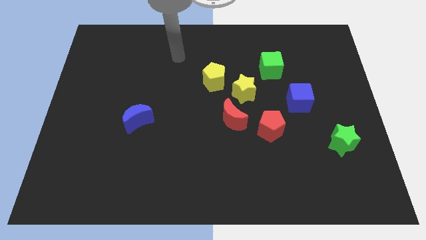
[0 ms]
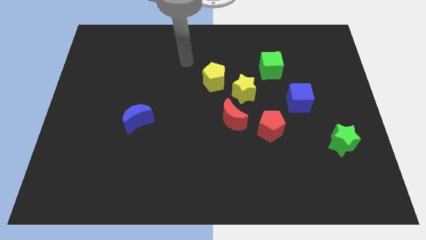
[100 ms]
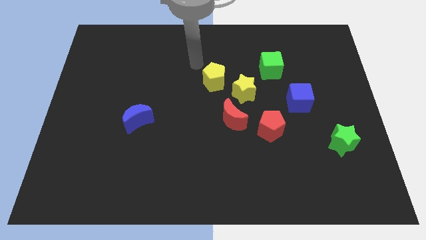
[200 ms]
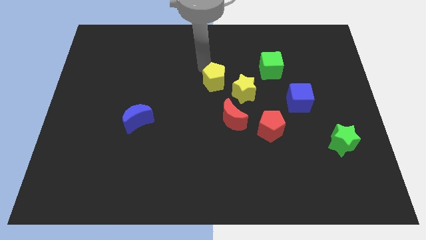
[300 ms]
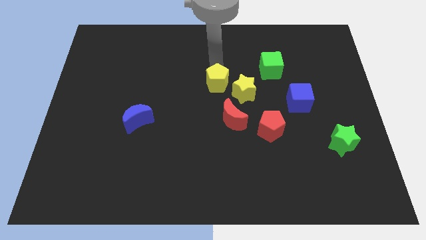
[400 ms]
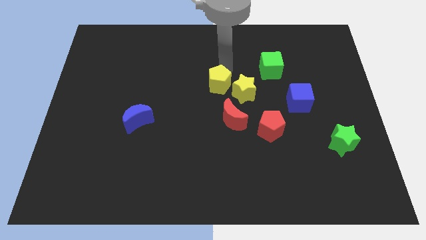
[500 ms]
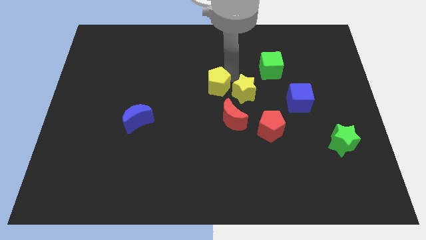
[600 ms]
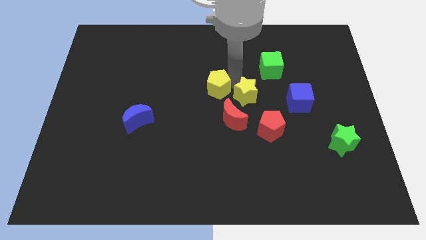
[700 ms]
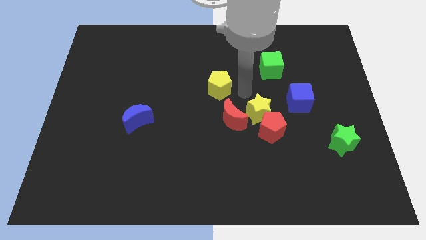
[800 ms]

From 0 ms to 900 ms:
move the yellow pentagon away from the yellow star

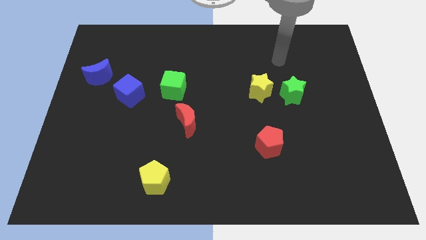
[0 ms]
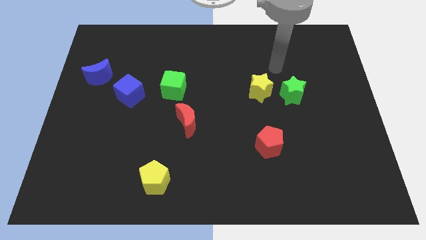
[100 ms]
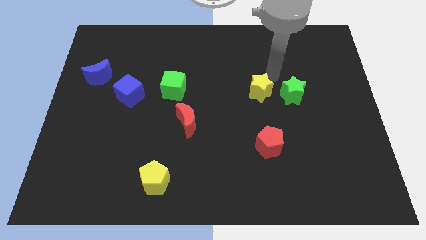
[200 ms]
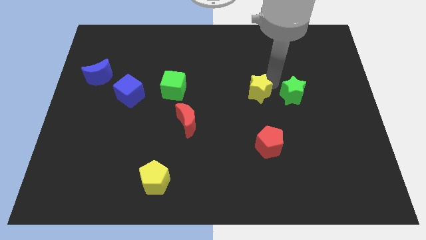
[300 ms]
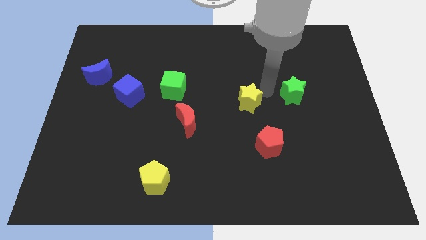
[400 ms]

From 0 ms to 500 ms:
pull the green star apart from the yellow star

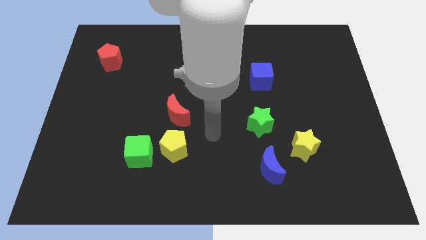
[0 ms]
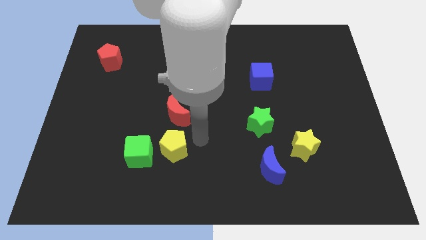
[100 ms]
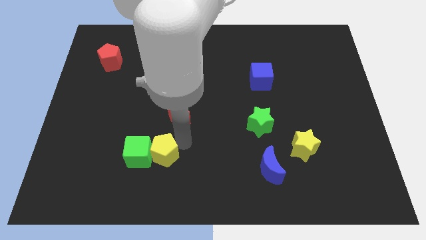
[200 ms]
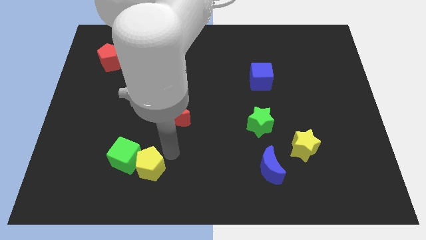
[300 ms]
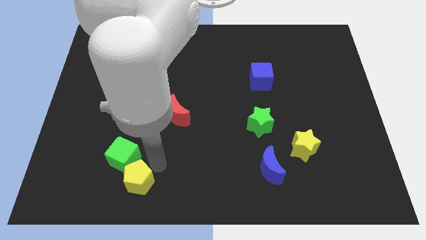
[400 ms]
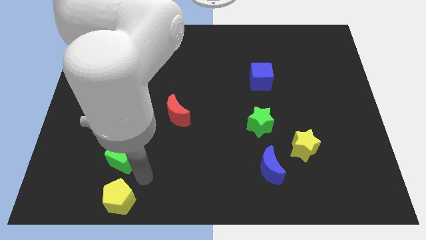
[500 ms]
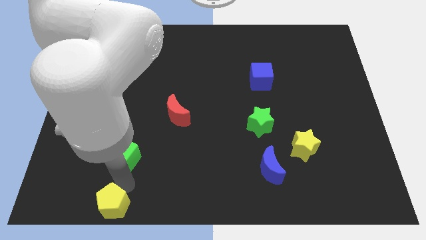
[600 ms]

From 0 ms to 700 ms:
move the green cube away from the yellow pentagon

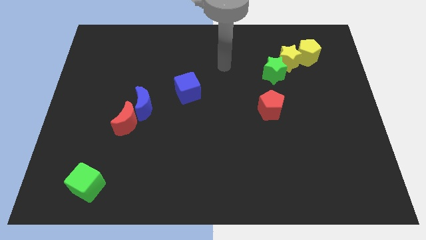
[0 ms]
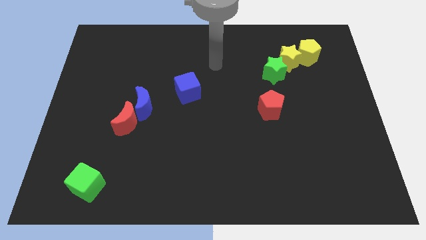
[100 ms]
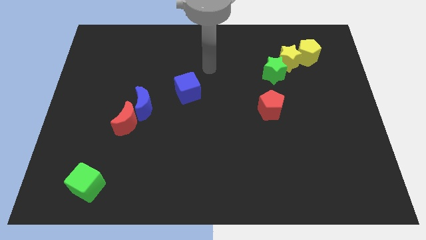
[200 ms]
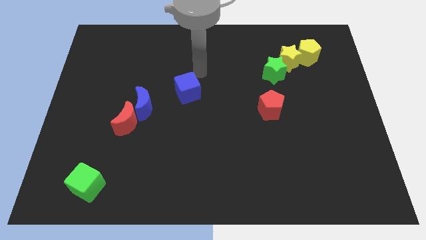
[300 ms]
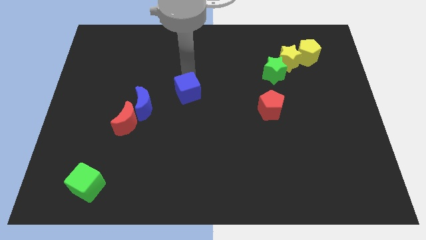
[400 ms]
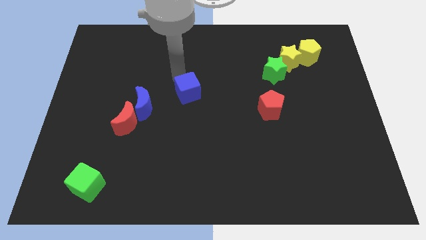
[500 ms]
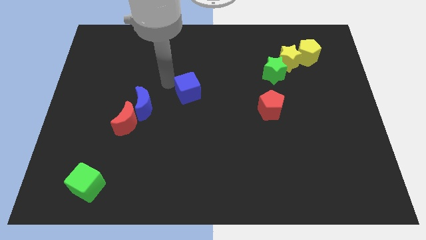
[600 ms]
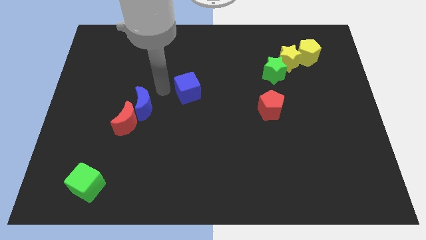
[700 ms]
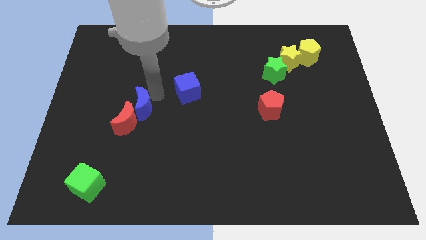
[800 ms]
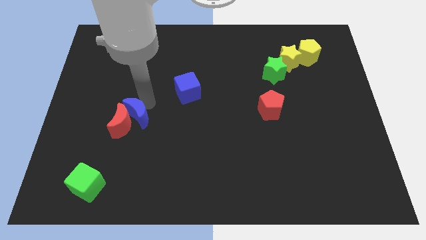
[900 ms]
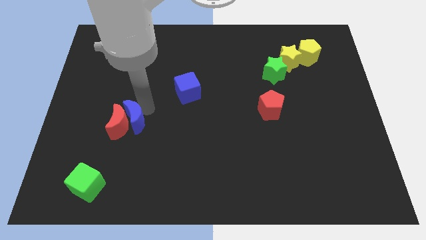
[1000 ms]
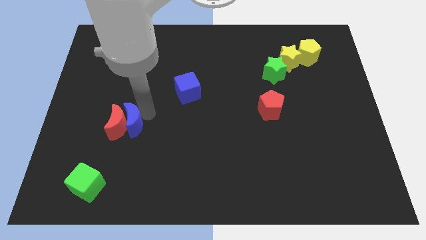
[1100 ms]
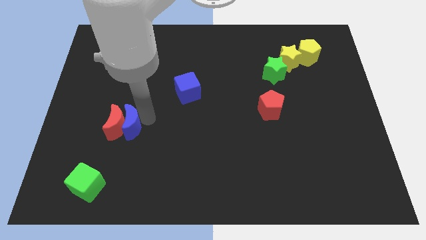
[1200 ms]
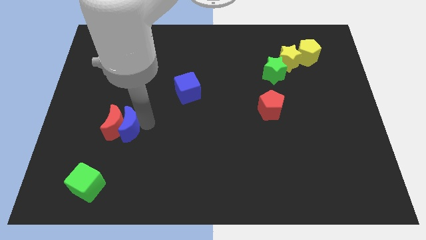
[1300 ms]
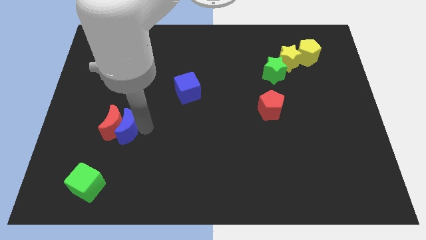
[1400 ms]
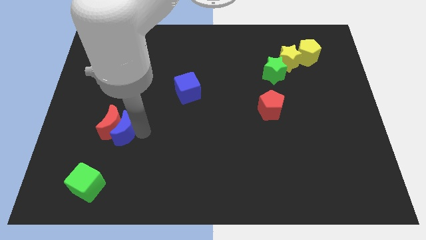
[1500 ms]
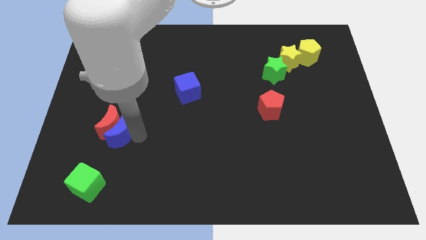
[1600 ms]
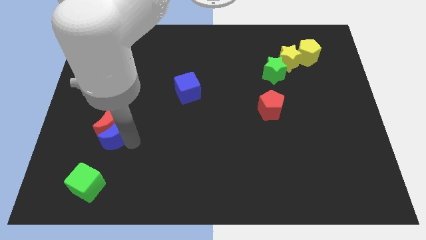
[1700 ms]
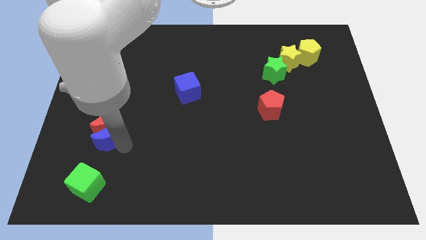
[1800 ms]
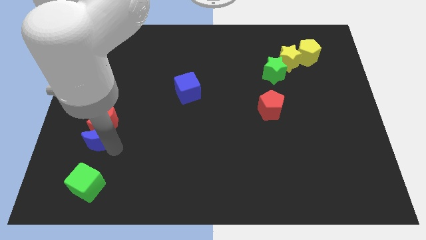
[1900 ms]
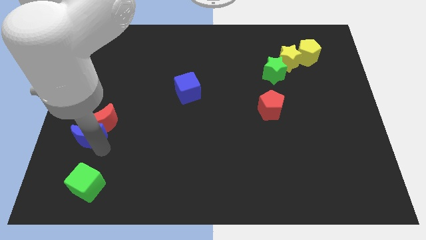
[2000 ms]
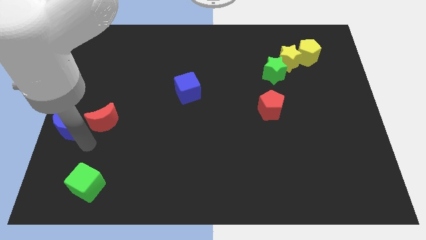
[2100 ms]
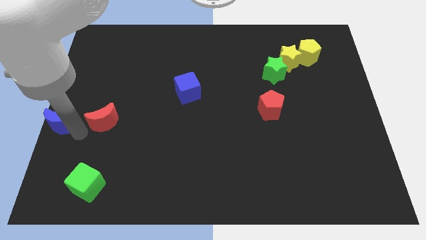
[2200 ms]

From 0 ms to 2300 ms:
move the red moon away from the blue moon

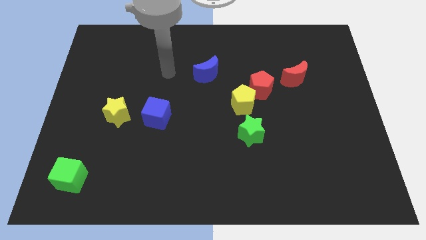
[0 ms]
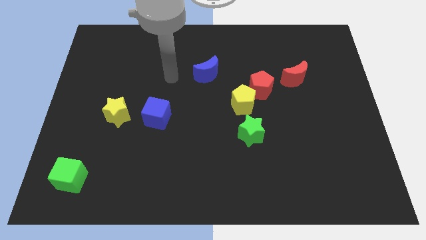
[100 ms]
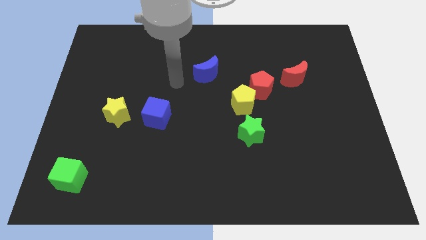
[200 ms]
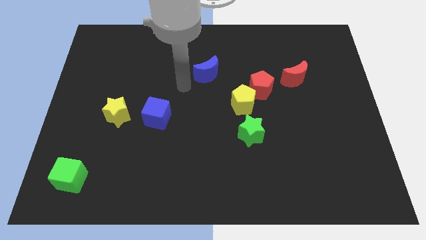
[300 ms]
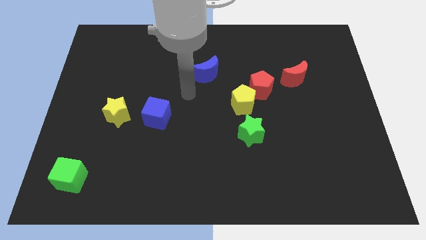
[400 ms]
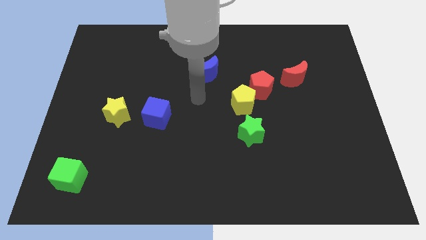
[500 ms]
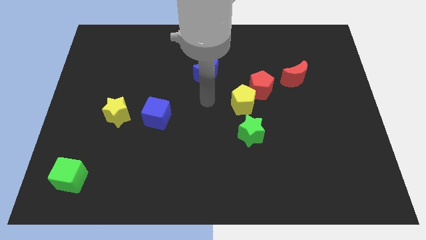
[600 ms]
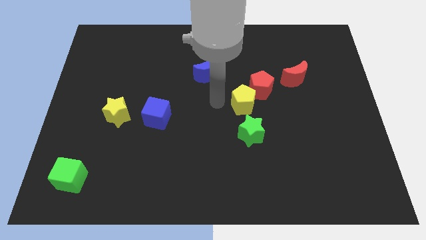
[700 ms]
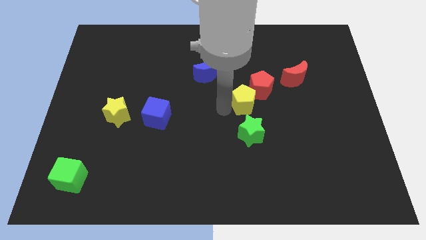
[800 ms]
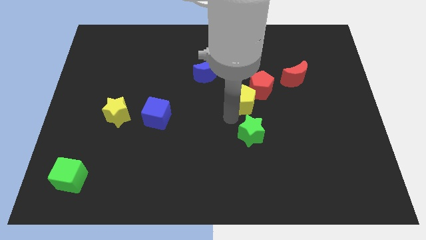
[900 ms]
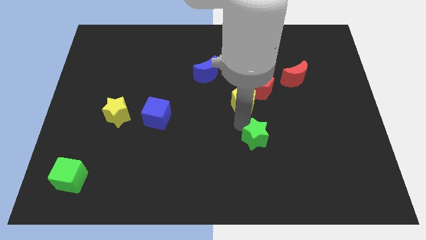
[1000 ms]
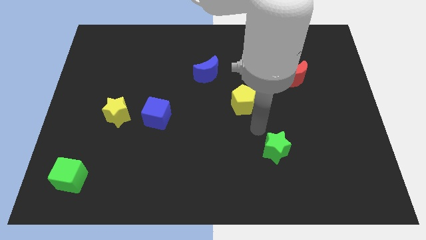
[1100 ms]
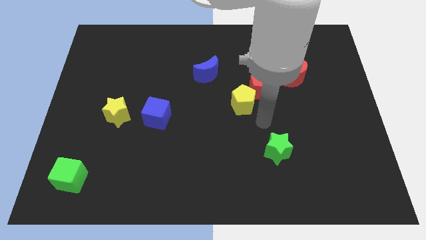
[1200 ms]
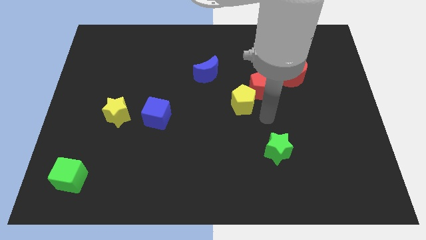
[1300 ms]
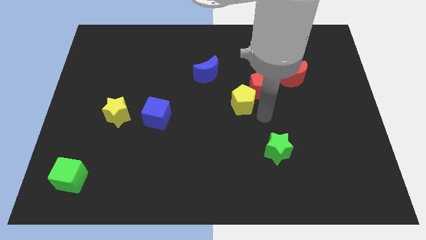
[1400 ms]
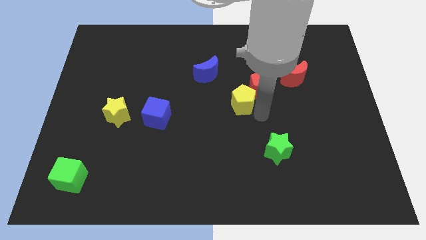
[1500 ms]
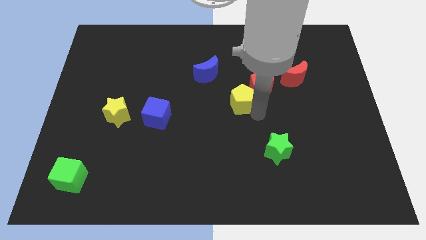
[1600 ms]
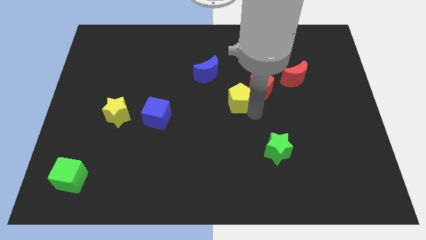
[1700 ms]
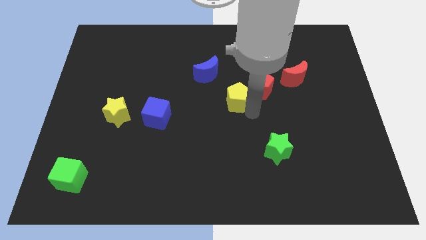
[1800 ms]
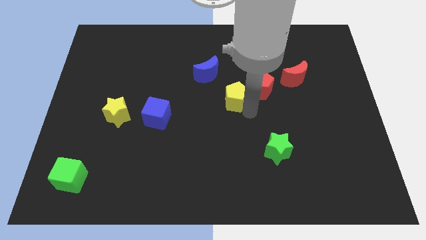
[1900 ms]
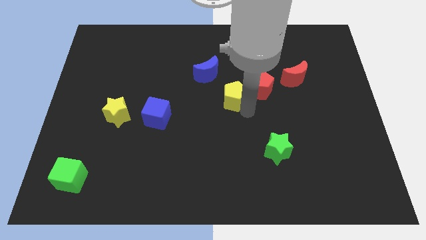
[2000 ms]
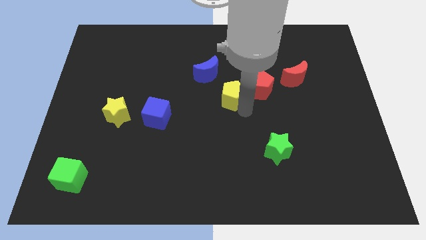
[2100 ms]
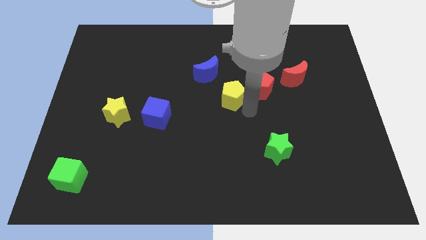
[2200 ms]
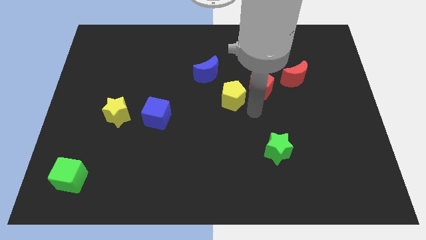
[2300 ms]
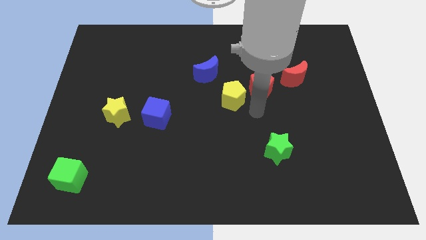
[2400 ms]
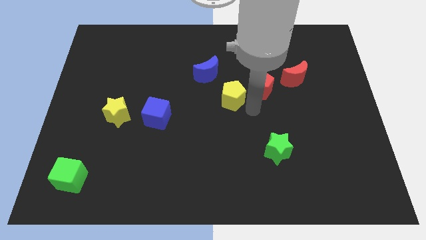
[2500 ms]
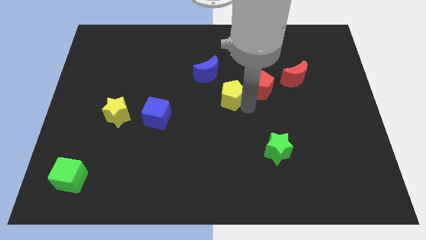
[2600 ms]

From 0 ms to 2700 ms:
separate the yellow pentagon from the red pentagon and green star

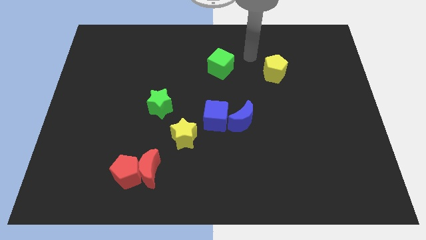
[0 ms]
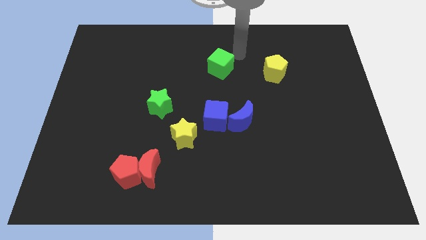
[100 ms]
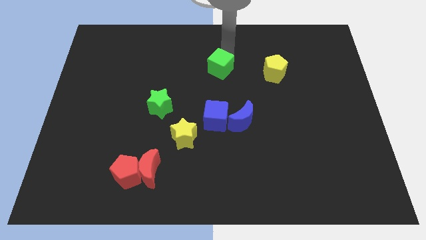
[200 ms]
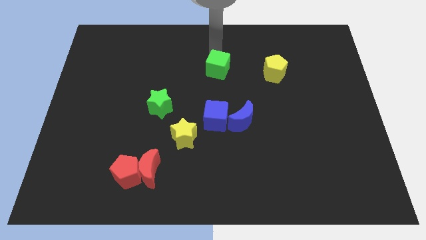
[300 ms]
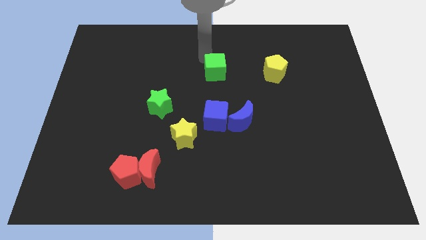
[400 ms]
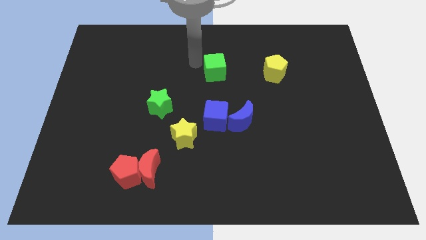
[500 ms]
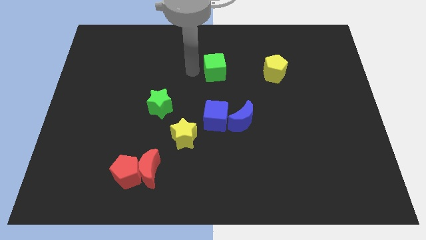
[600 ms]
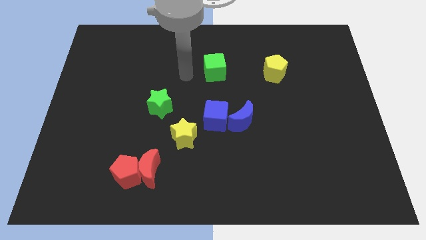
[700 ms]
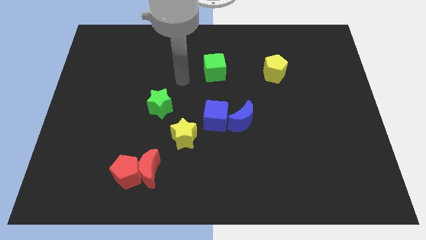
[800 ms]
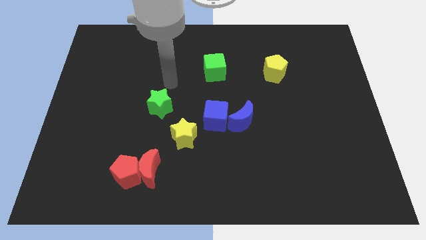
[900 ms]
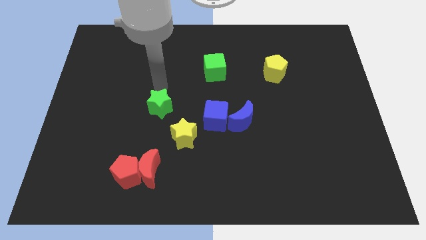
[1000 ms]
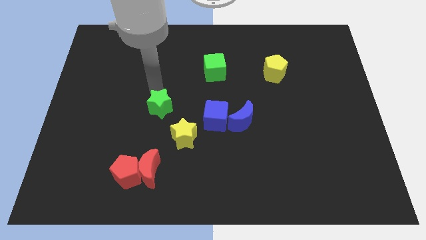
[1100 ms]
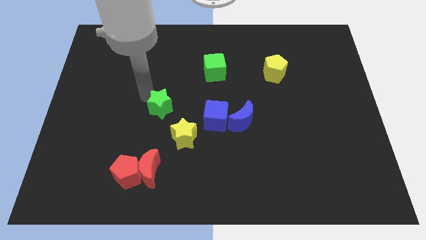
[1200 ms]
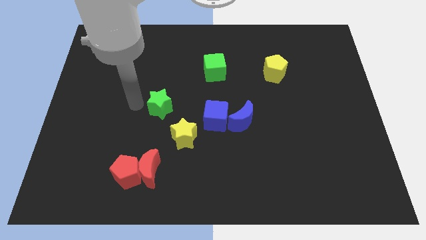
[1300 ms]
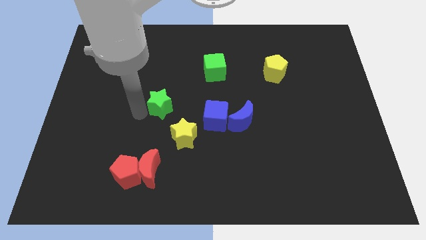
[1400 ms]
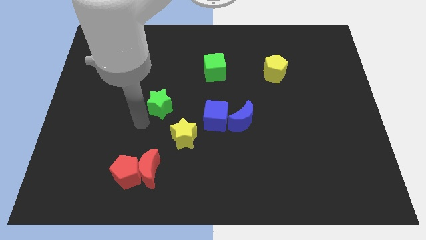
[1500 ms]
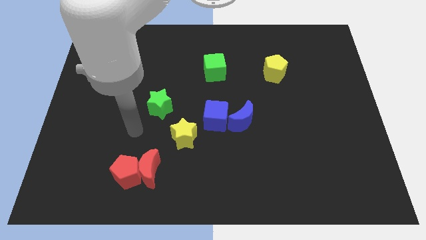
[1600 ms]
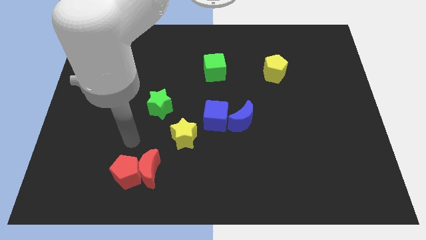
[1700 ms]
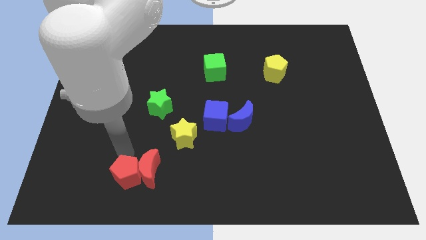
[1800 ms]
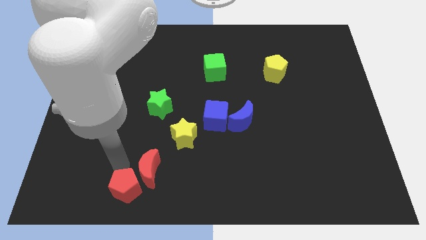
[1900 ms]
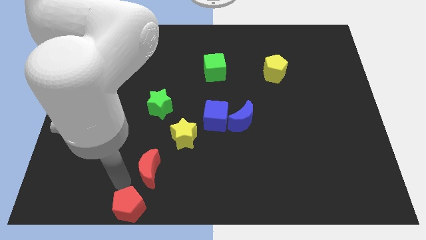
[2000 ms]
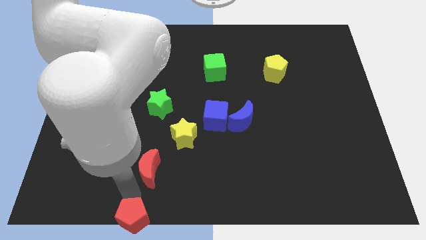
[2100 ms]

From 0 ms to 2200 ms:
pull the red moon apart from the red pentagon
